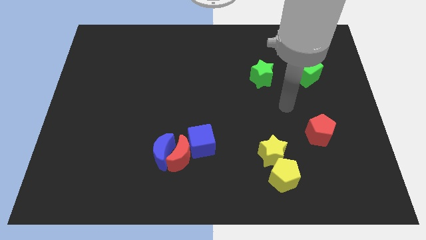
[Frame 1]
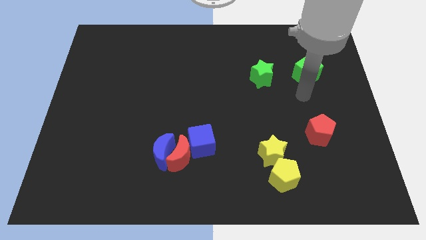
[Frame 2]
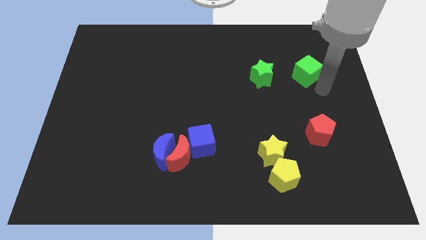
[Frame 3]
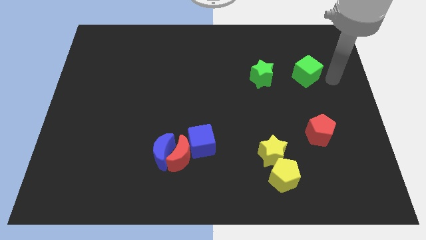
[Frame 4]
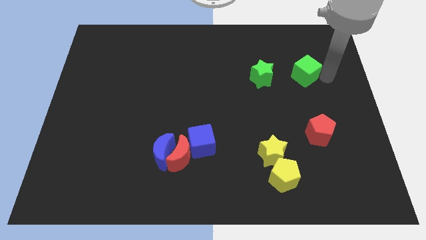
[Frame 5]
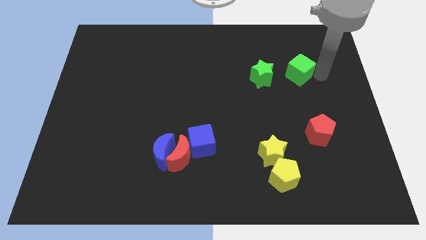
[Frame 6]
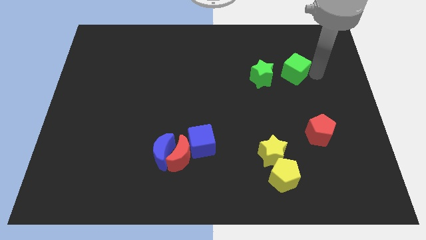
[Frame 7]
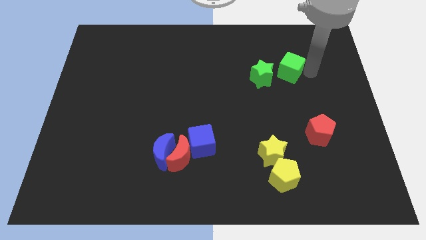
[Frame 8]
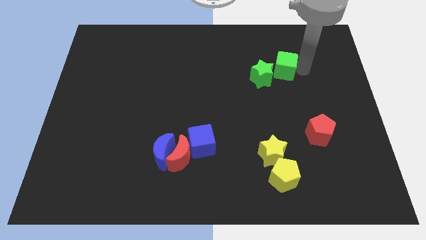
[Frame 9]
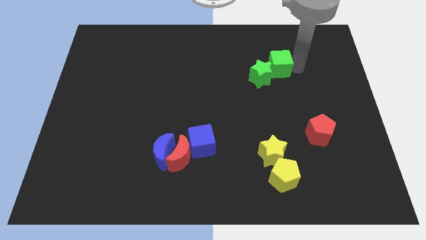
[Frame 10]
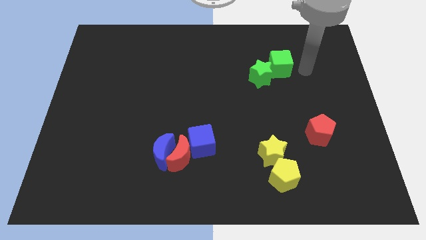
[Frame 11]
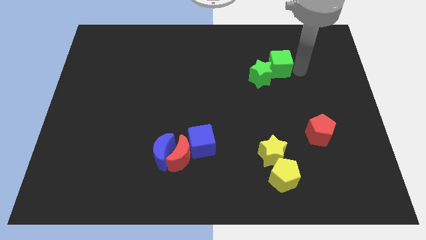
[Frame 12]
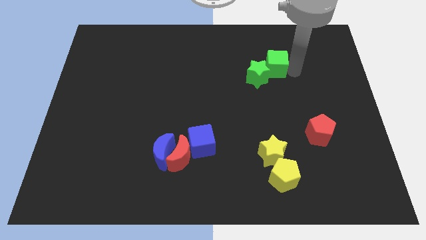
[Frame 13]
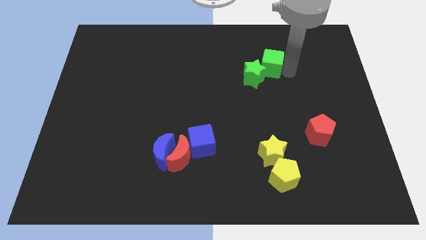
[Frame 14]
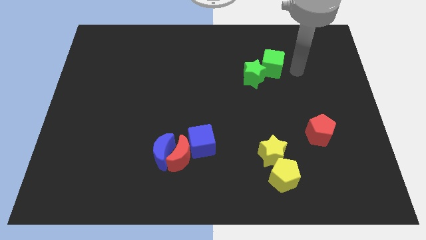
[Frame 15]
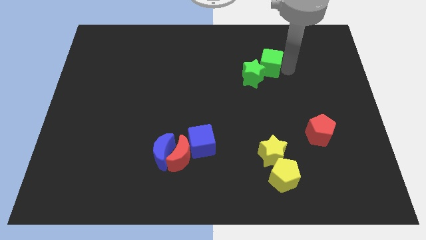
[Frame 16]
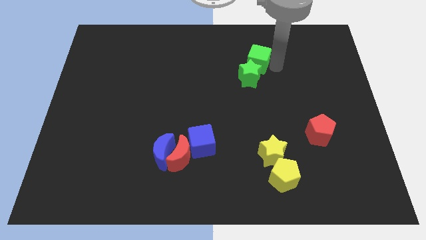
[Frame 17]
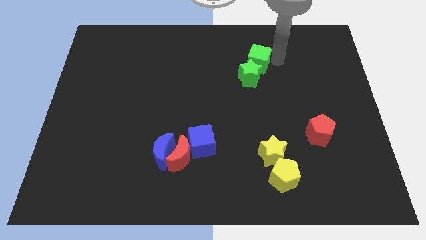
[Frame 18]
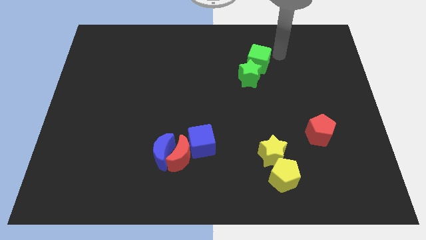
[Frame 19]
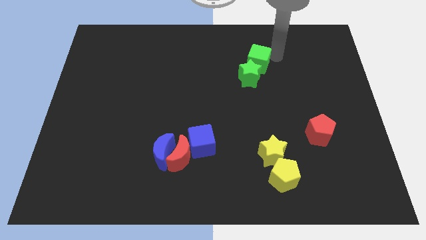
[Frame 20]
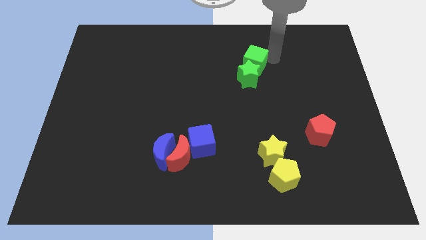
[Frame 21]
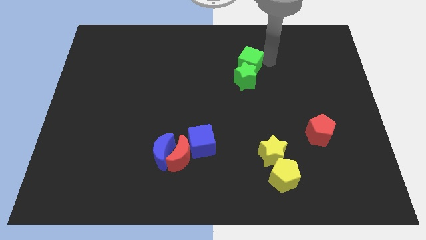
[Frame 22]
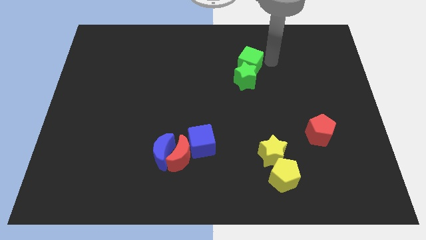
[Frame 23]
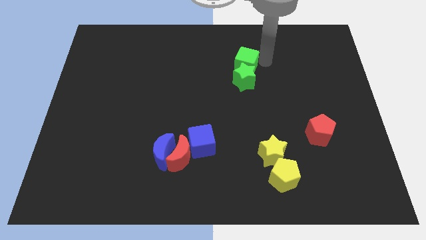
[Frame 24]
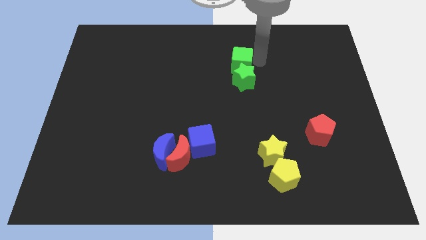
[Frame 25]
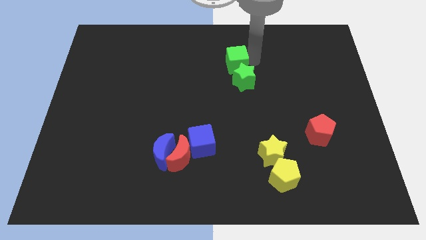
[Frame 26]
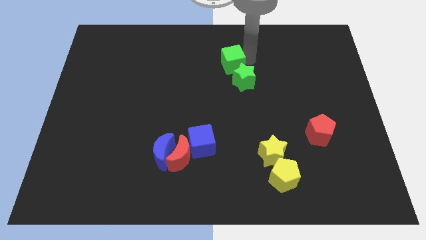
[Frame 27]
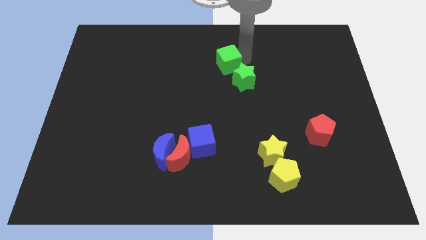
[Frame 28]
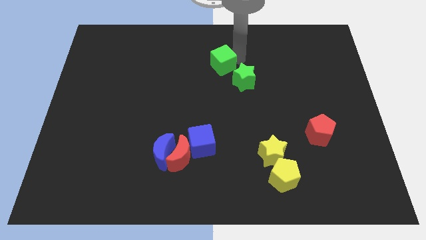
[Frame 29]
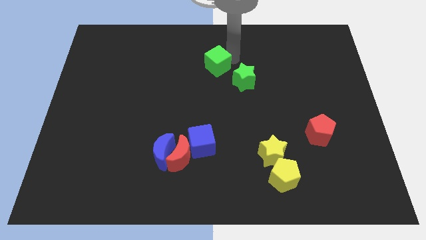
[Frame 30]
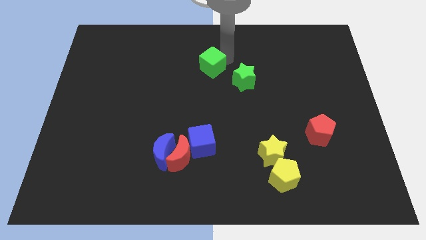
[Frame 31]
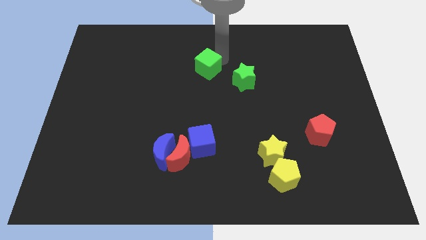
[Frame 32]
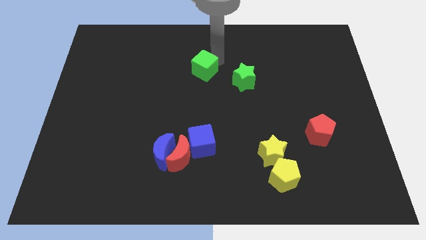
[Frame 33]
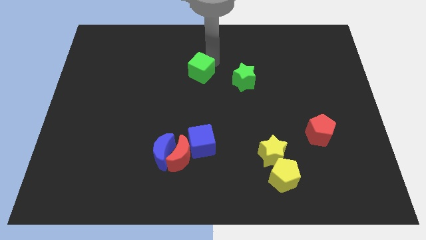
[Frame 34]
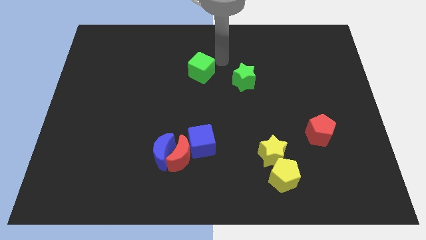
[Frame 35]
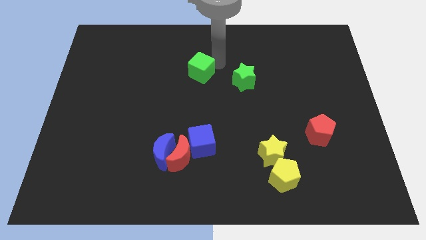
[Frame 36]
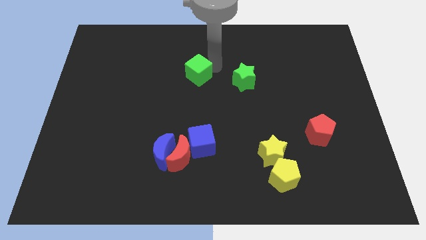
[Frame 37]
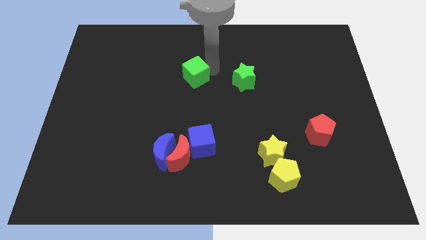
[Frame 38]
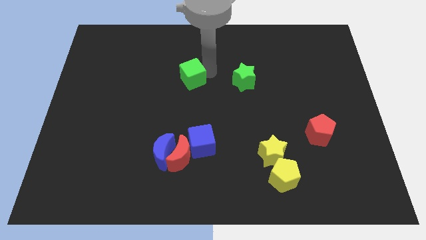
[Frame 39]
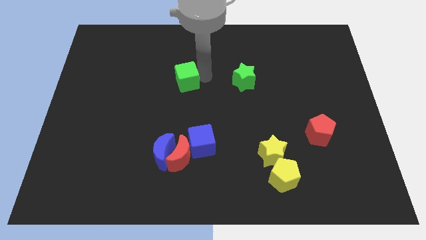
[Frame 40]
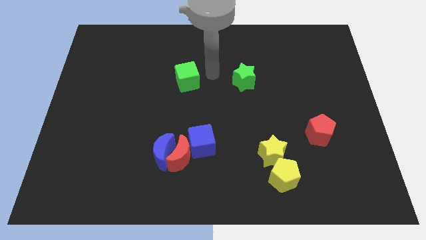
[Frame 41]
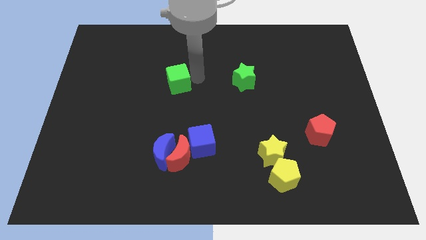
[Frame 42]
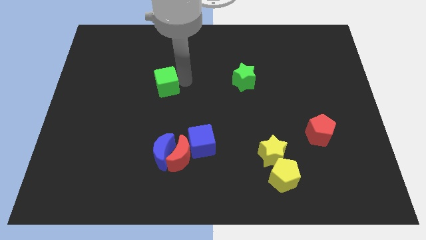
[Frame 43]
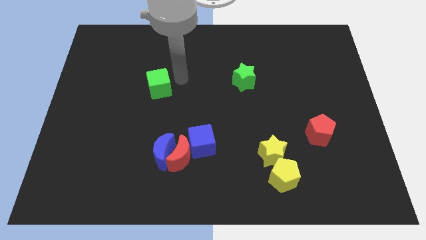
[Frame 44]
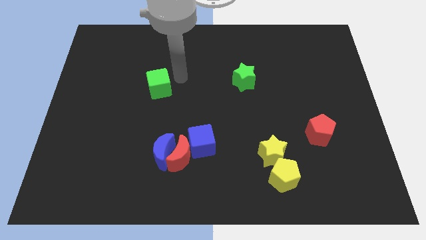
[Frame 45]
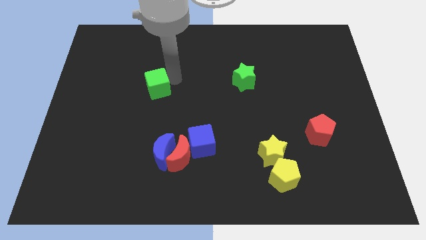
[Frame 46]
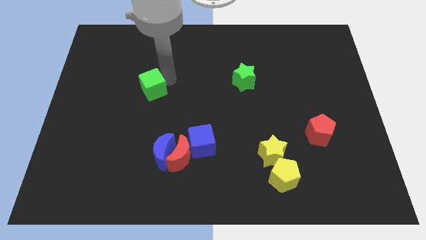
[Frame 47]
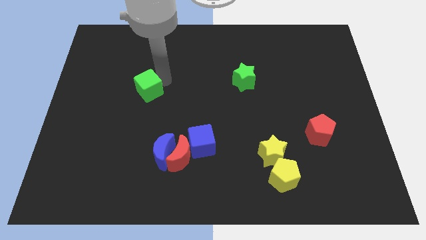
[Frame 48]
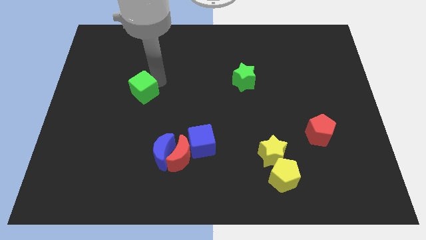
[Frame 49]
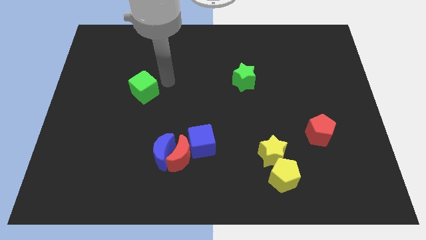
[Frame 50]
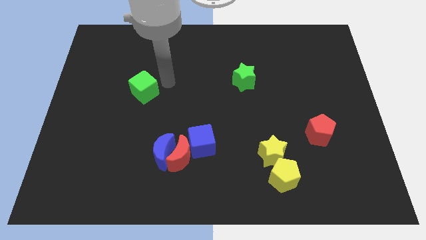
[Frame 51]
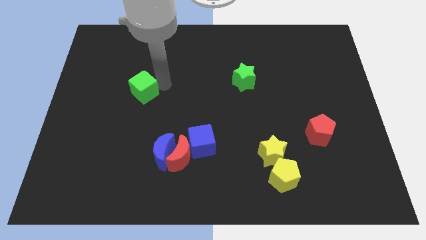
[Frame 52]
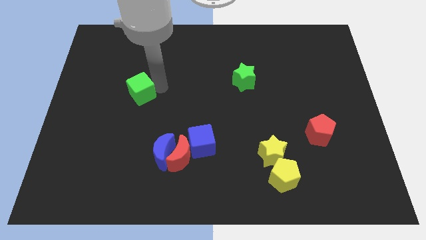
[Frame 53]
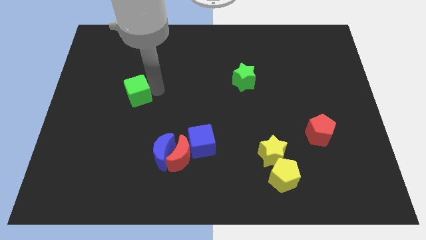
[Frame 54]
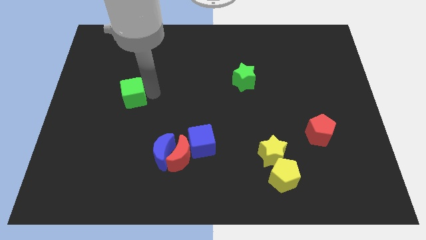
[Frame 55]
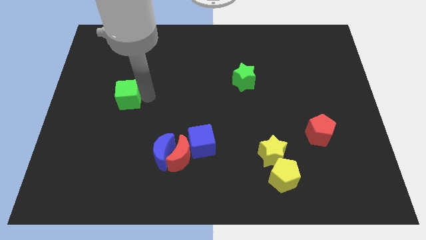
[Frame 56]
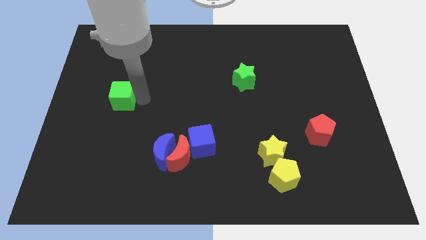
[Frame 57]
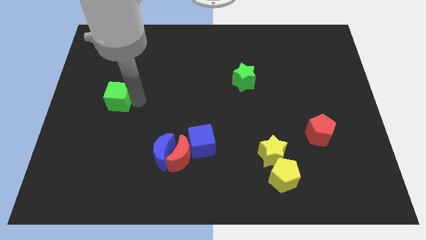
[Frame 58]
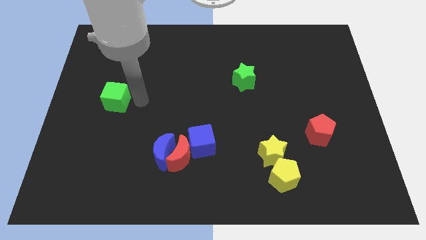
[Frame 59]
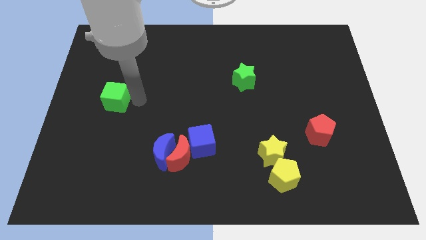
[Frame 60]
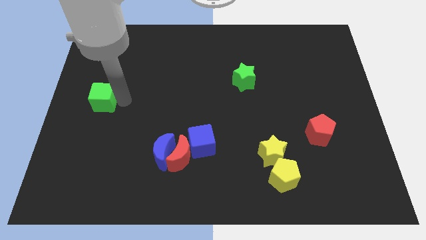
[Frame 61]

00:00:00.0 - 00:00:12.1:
move the green cube to the left side of the board
